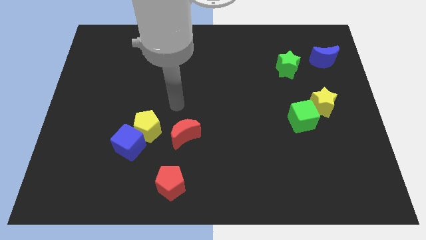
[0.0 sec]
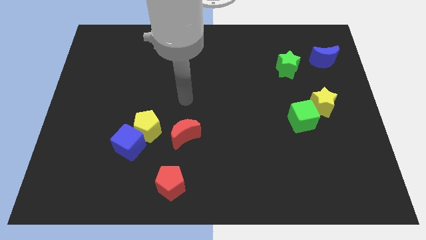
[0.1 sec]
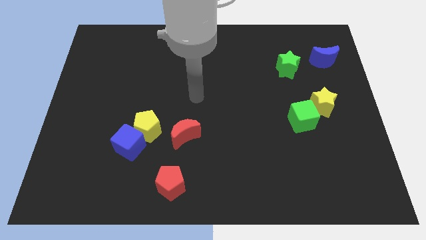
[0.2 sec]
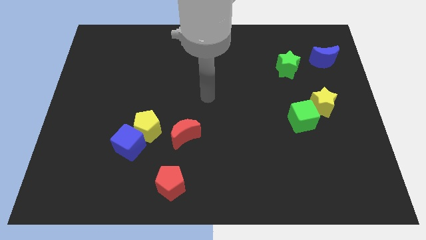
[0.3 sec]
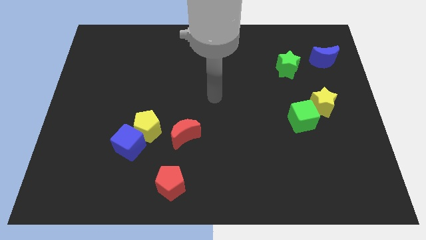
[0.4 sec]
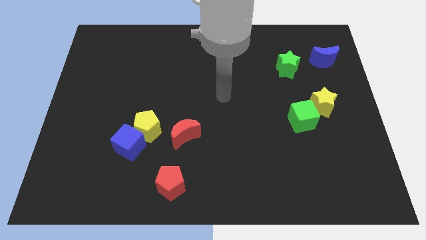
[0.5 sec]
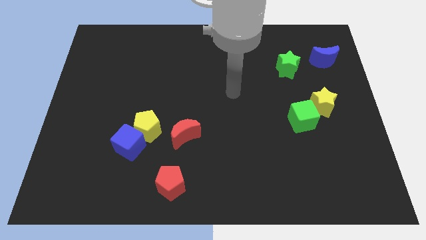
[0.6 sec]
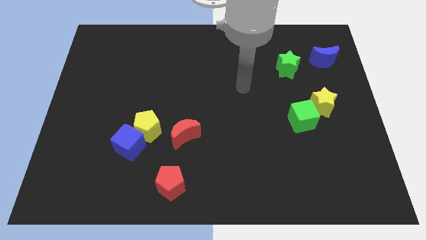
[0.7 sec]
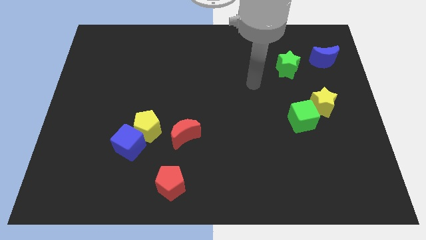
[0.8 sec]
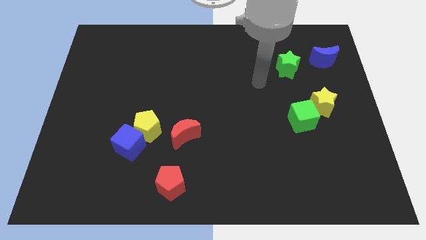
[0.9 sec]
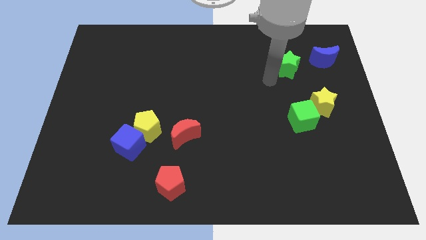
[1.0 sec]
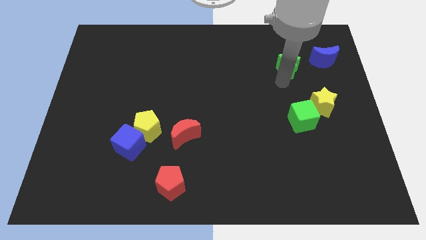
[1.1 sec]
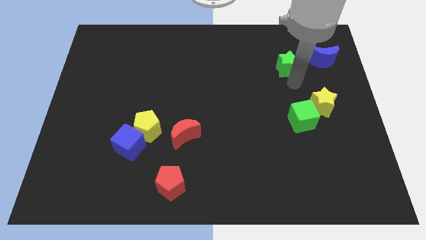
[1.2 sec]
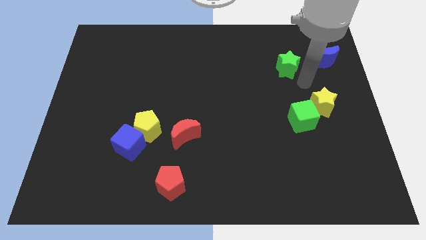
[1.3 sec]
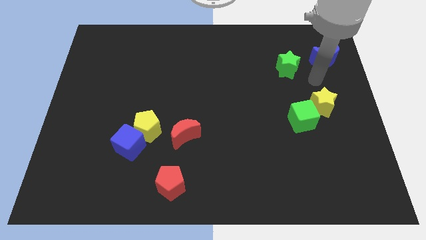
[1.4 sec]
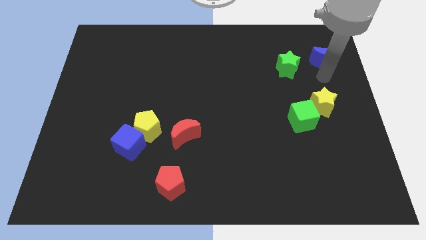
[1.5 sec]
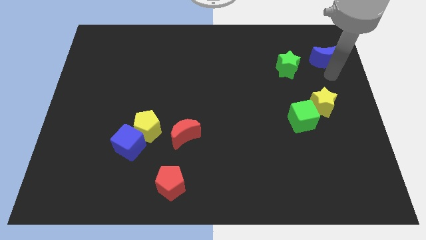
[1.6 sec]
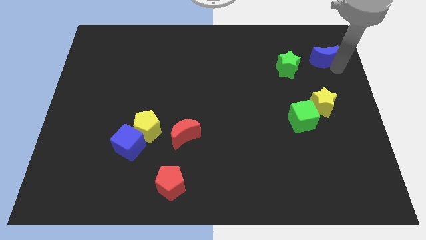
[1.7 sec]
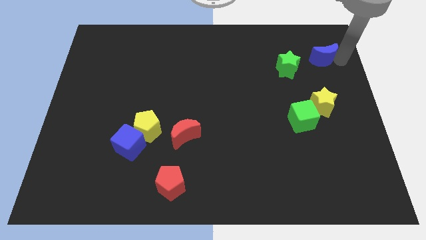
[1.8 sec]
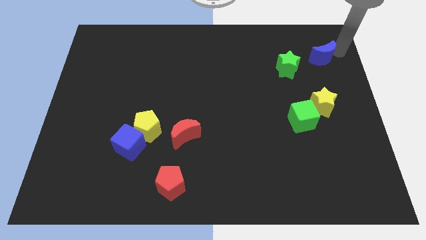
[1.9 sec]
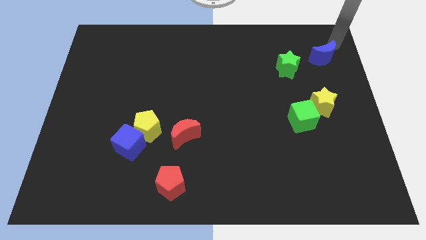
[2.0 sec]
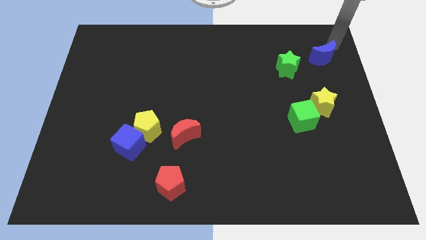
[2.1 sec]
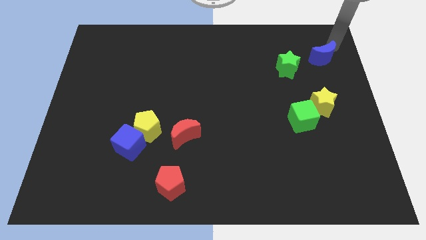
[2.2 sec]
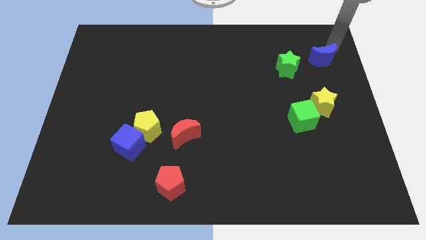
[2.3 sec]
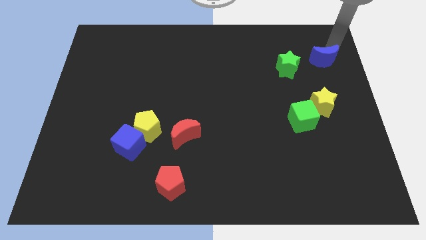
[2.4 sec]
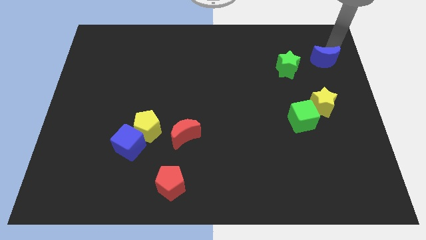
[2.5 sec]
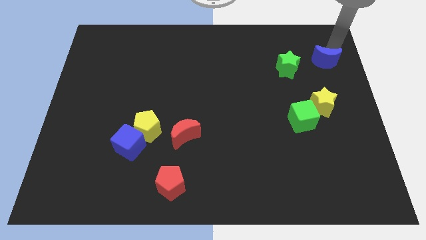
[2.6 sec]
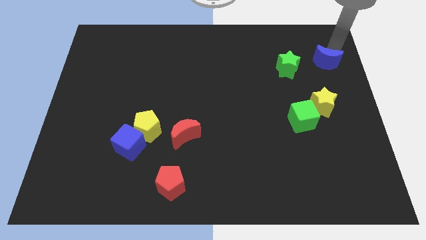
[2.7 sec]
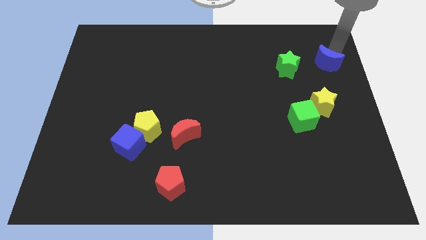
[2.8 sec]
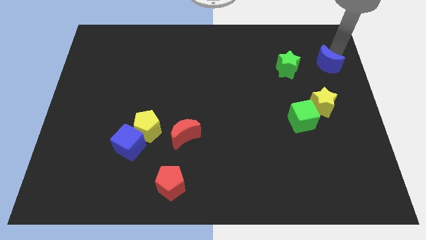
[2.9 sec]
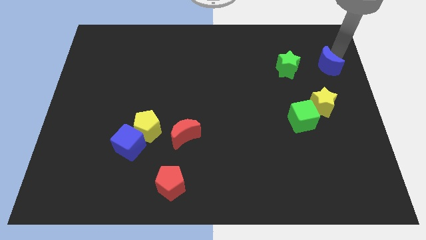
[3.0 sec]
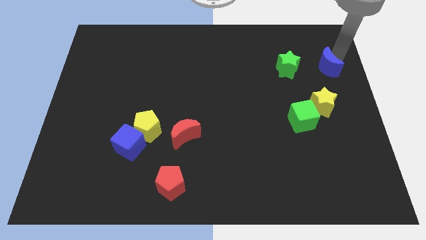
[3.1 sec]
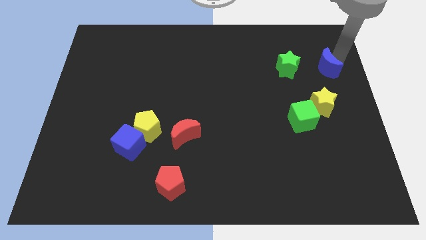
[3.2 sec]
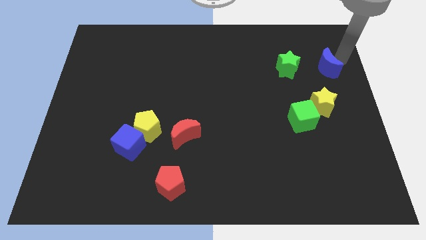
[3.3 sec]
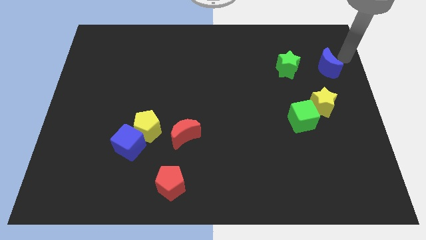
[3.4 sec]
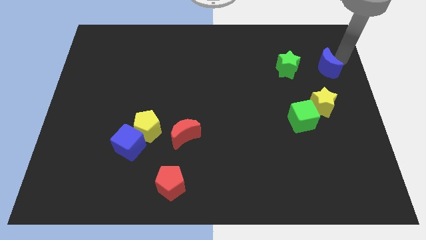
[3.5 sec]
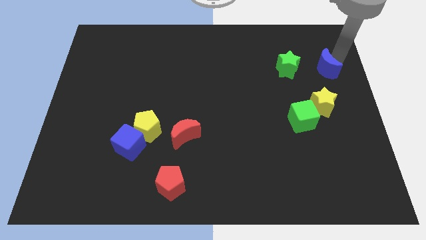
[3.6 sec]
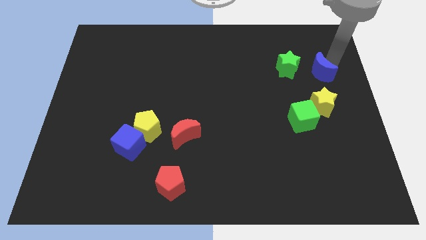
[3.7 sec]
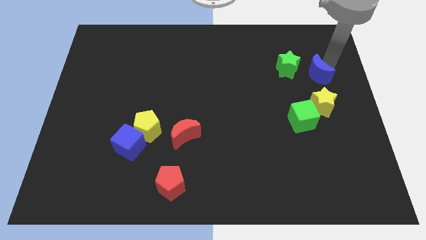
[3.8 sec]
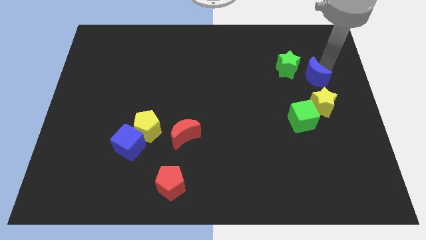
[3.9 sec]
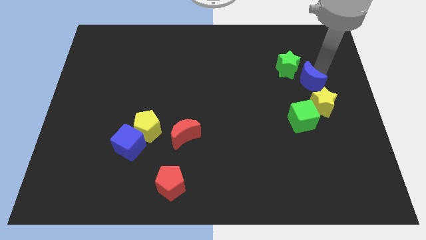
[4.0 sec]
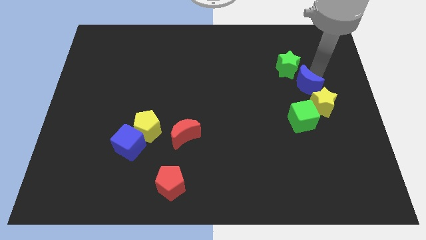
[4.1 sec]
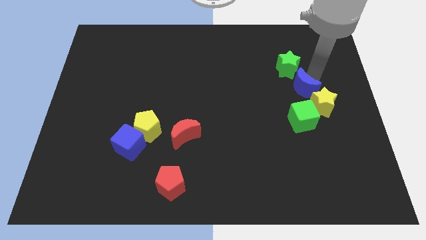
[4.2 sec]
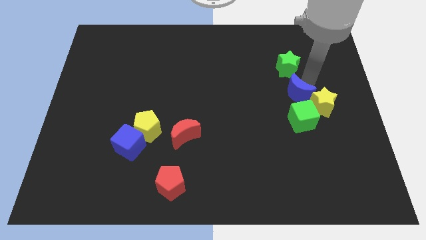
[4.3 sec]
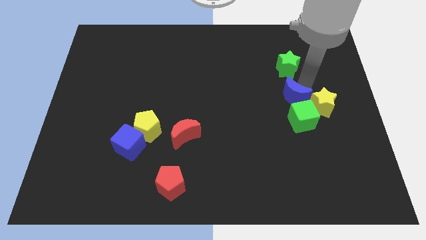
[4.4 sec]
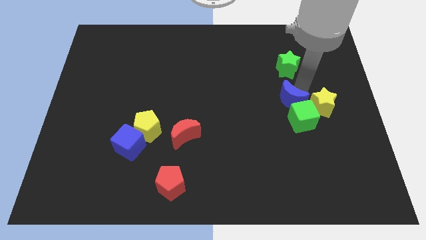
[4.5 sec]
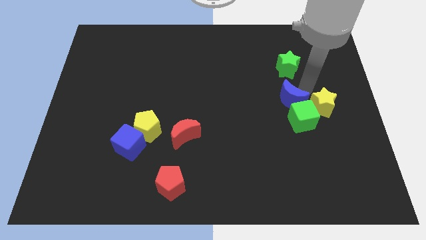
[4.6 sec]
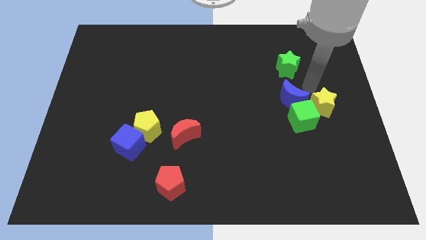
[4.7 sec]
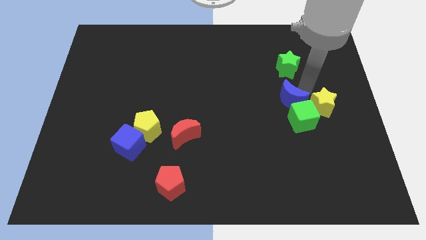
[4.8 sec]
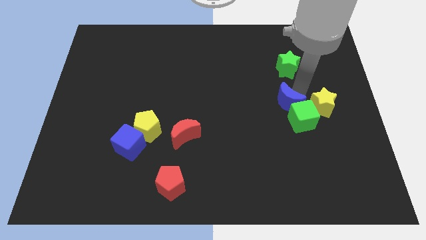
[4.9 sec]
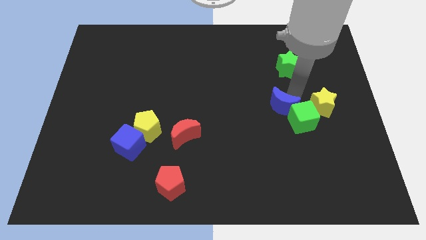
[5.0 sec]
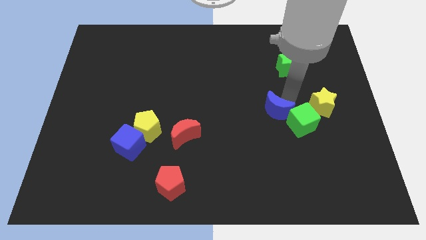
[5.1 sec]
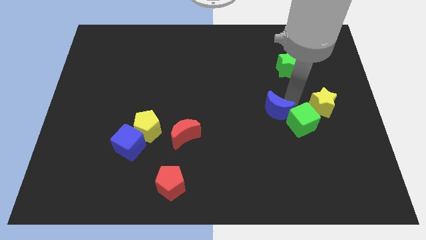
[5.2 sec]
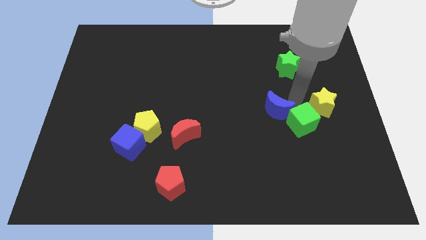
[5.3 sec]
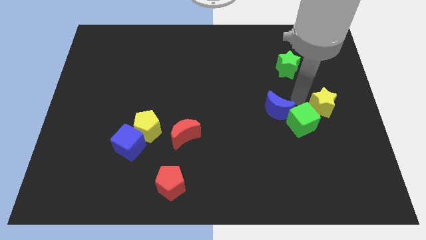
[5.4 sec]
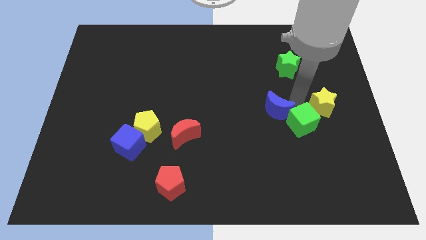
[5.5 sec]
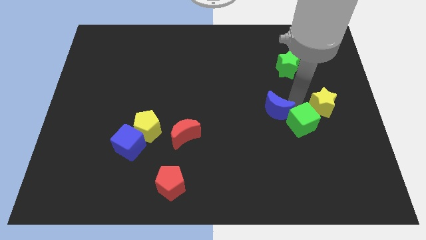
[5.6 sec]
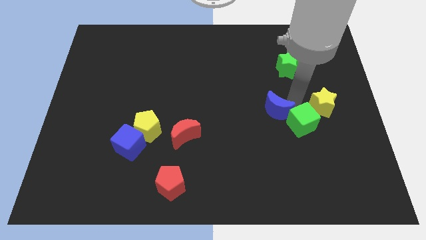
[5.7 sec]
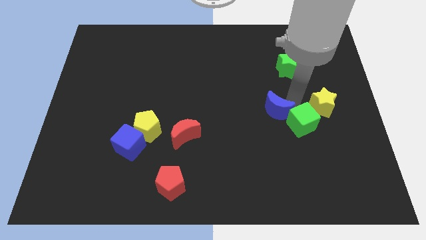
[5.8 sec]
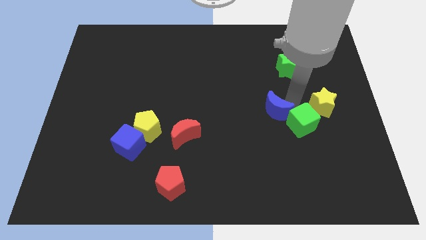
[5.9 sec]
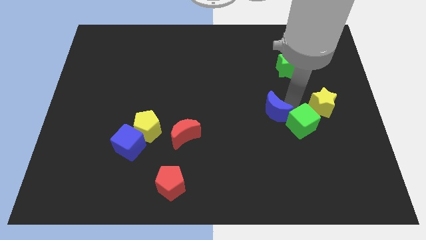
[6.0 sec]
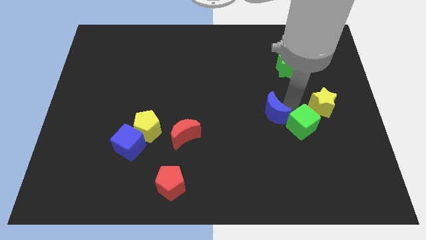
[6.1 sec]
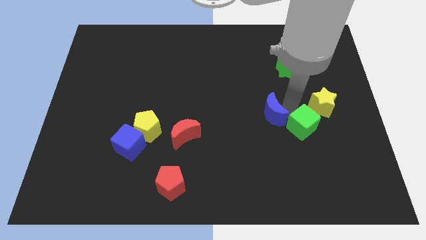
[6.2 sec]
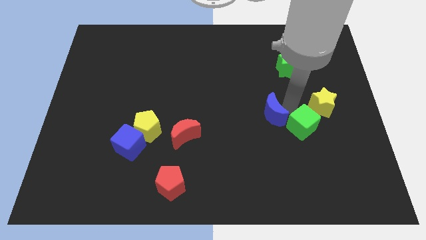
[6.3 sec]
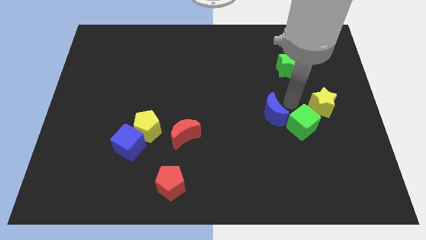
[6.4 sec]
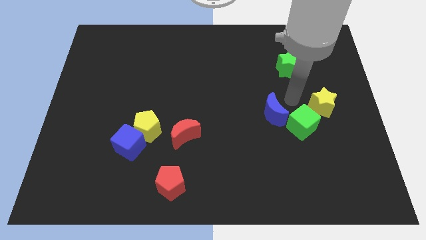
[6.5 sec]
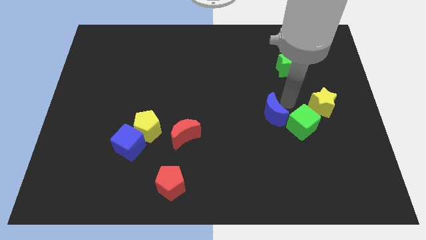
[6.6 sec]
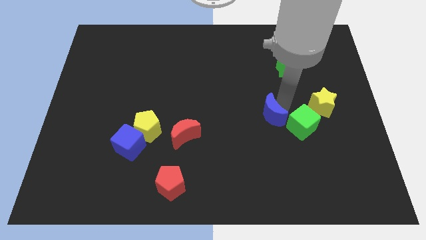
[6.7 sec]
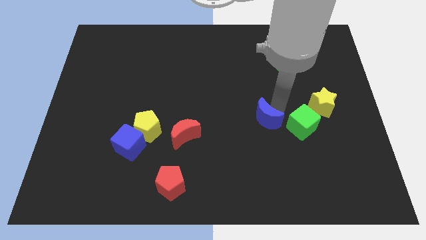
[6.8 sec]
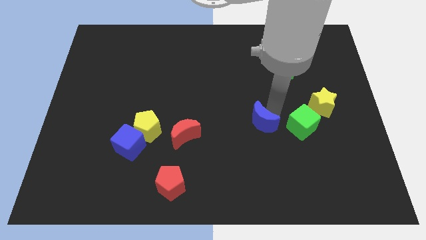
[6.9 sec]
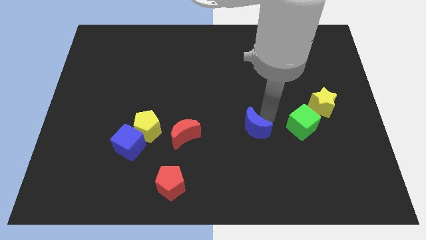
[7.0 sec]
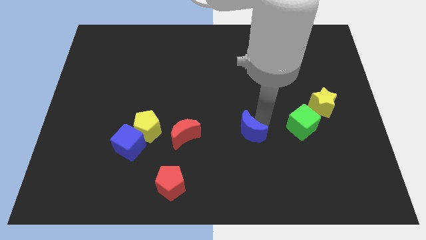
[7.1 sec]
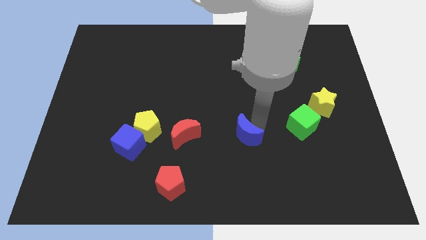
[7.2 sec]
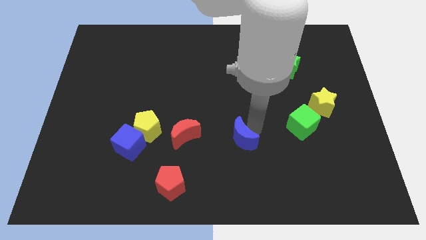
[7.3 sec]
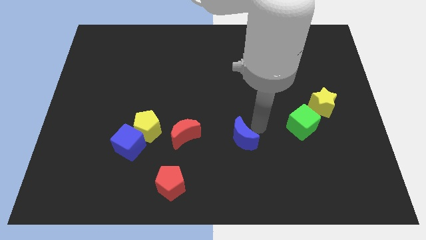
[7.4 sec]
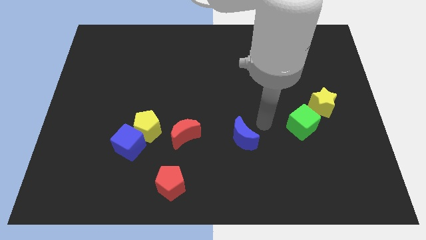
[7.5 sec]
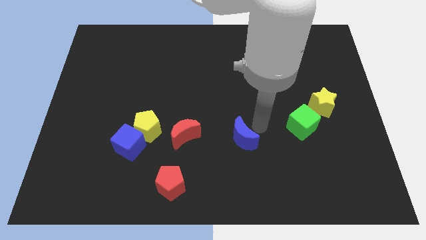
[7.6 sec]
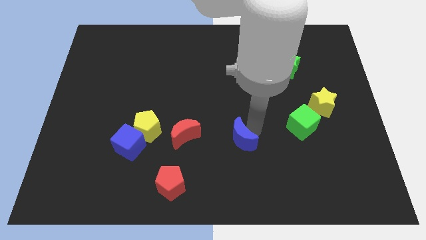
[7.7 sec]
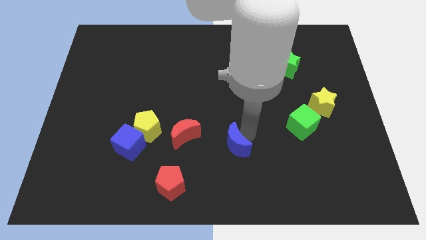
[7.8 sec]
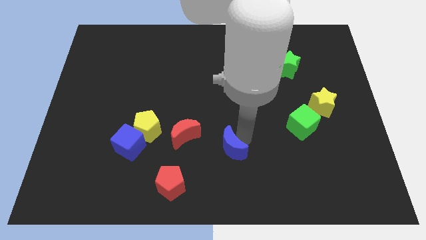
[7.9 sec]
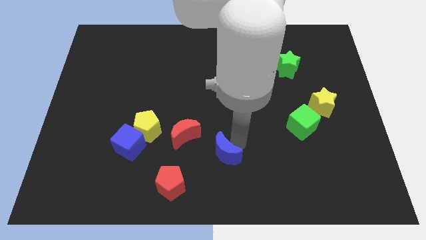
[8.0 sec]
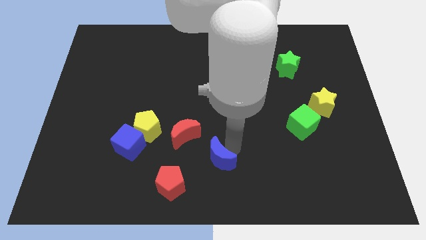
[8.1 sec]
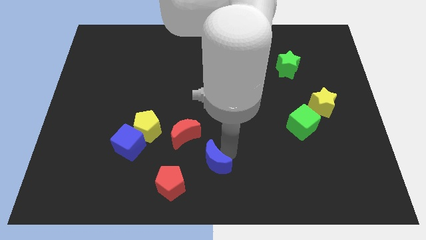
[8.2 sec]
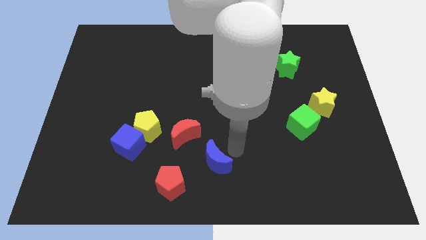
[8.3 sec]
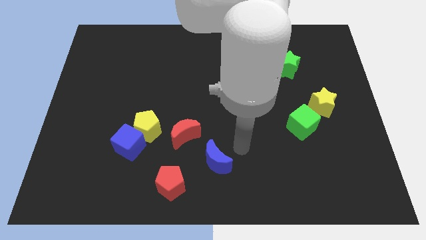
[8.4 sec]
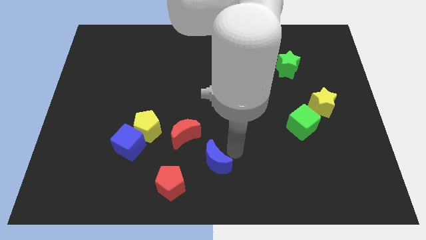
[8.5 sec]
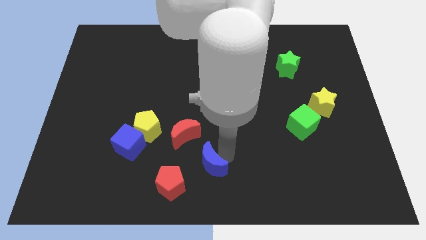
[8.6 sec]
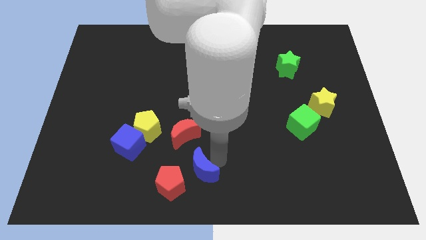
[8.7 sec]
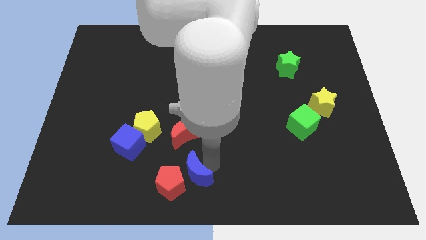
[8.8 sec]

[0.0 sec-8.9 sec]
push the blue moon to the red pentagon
